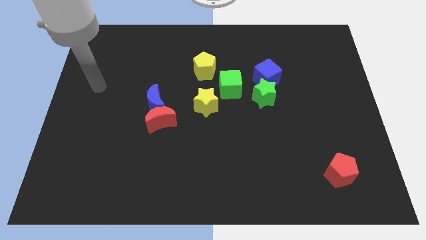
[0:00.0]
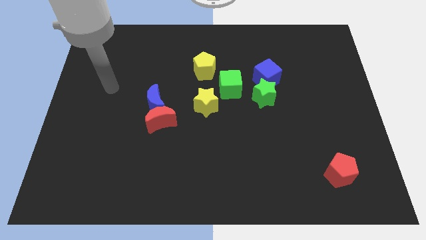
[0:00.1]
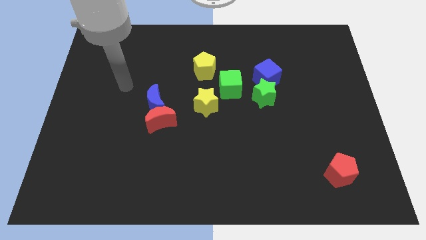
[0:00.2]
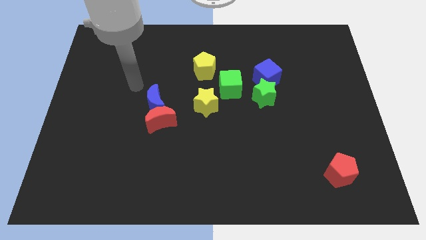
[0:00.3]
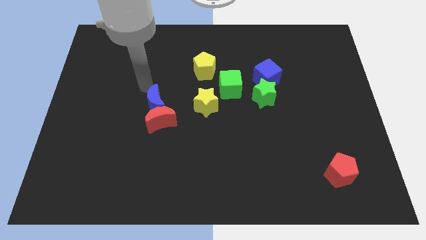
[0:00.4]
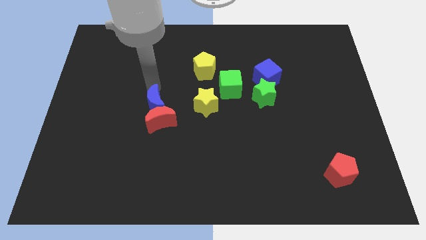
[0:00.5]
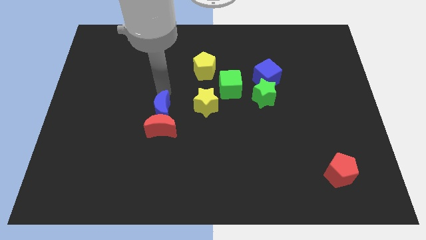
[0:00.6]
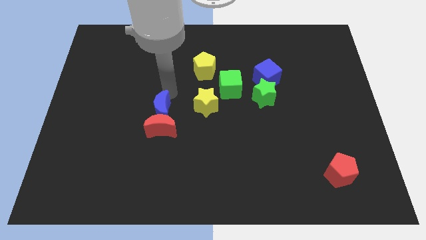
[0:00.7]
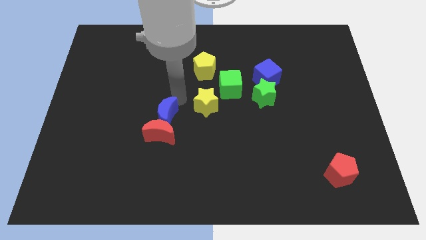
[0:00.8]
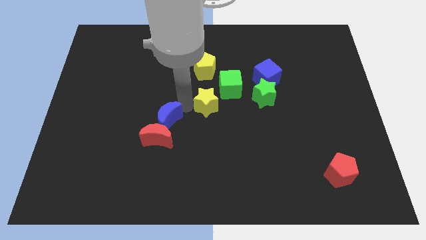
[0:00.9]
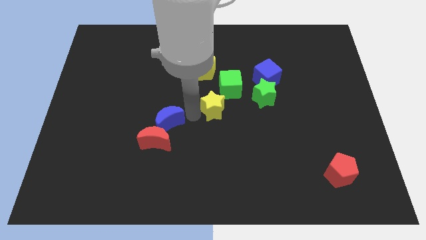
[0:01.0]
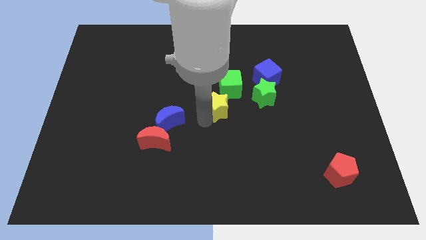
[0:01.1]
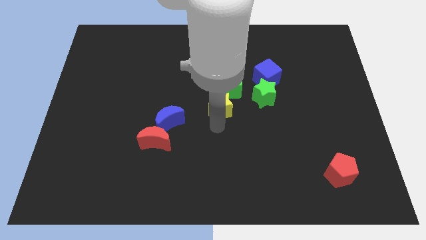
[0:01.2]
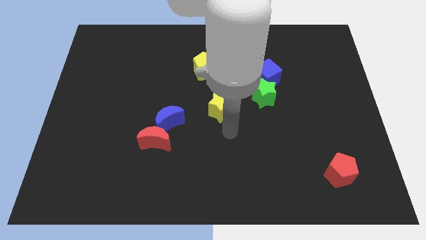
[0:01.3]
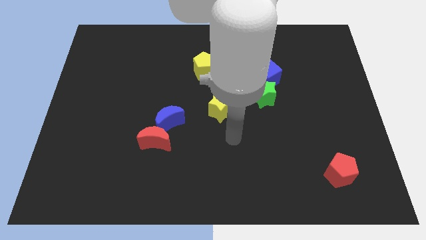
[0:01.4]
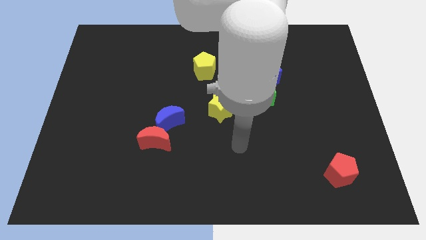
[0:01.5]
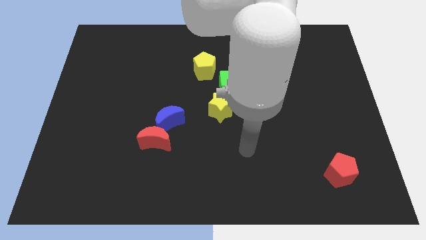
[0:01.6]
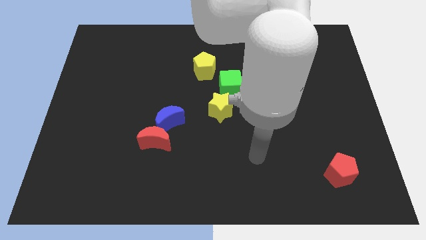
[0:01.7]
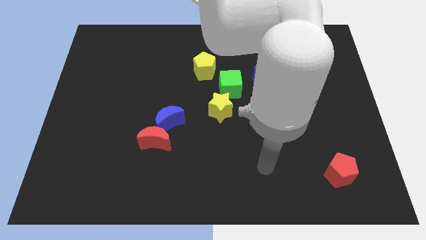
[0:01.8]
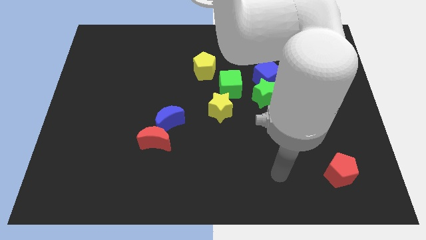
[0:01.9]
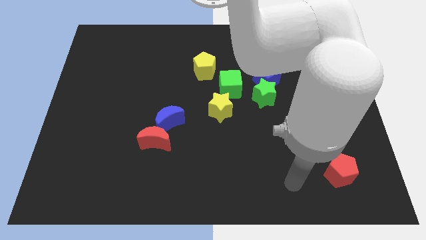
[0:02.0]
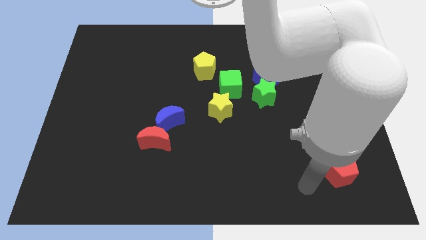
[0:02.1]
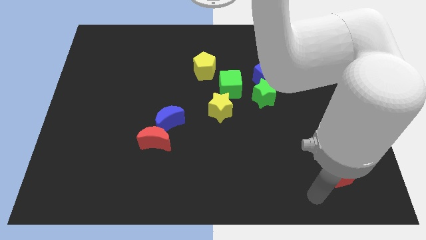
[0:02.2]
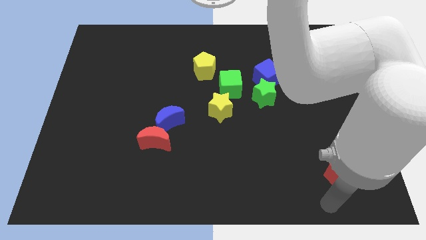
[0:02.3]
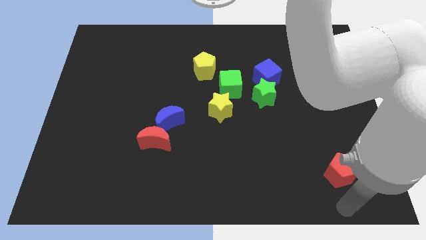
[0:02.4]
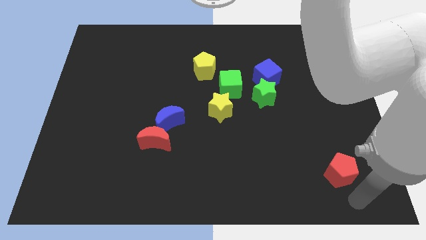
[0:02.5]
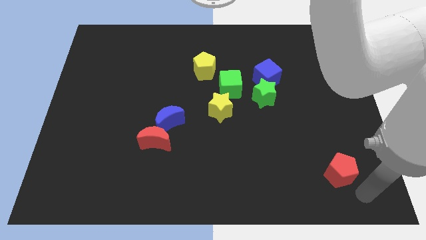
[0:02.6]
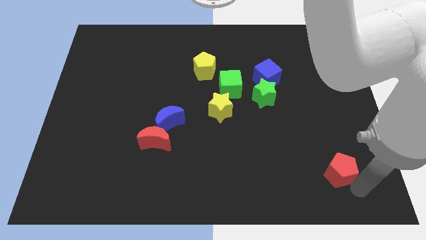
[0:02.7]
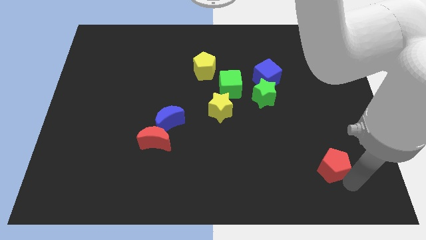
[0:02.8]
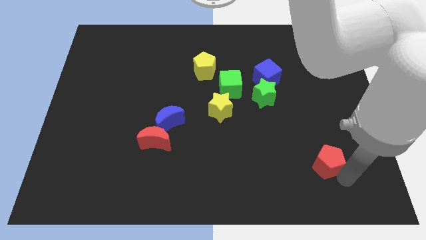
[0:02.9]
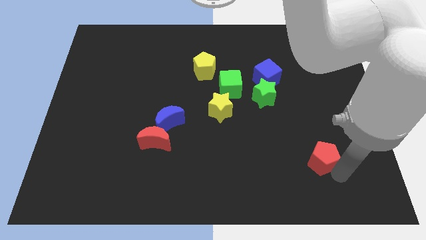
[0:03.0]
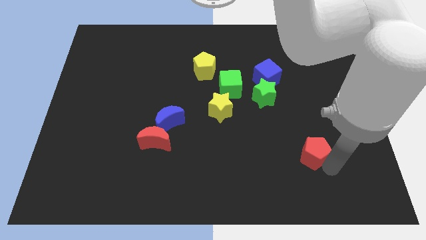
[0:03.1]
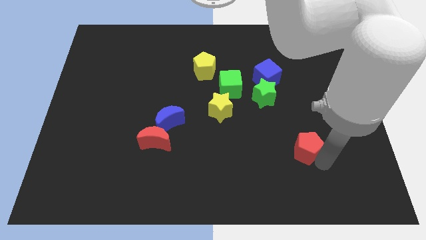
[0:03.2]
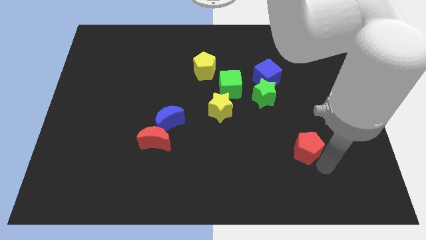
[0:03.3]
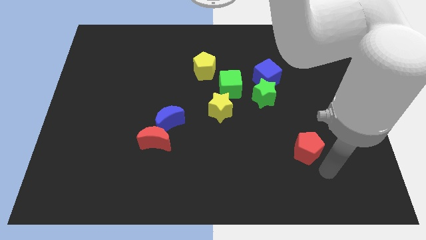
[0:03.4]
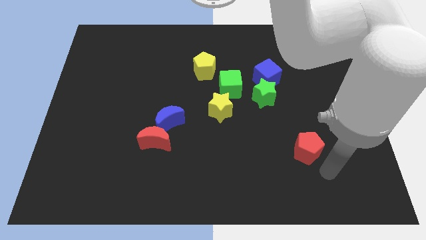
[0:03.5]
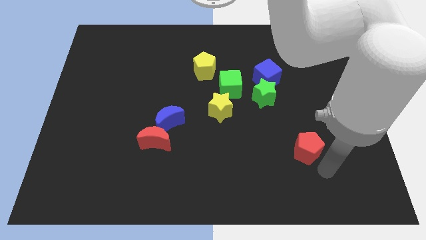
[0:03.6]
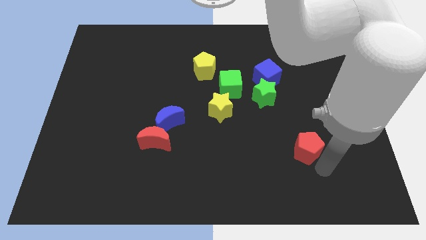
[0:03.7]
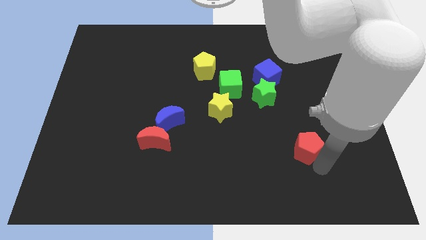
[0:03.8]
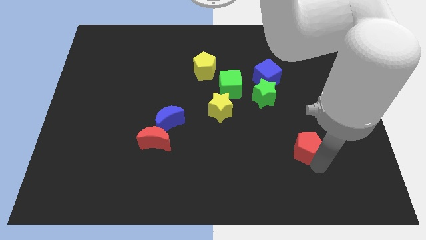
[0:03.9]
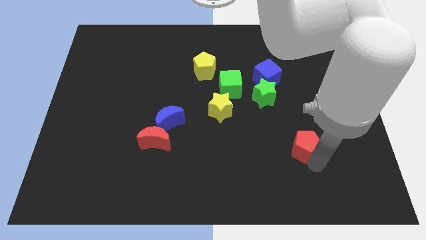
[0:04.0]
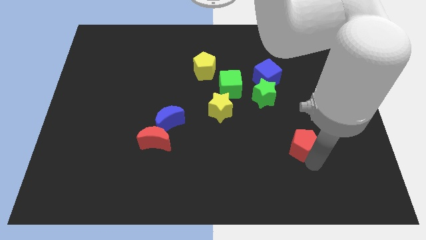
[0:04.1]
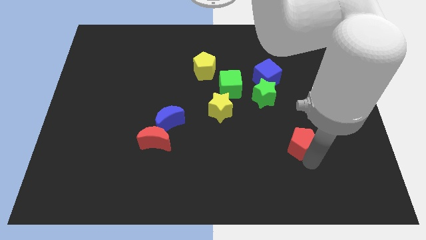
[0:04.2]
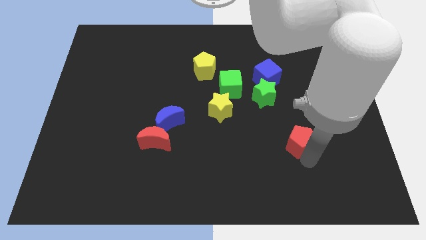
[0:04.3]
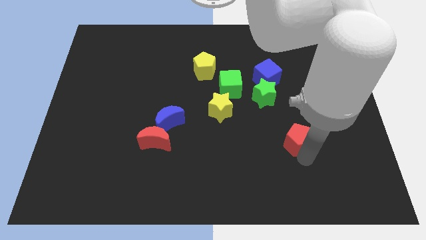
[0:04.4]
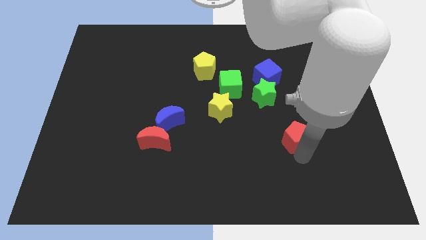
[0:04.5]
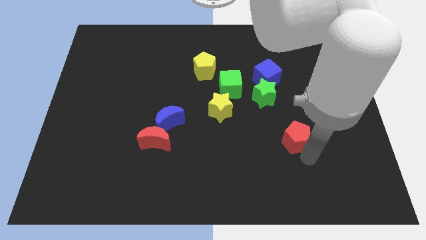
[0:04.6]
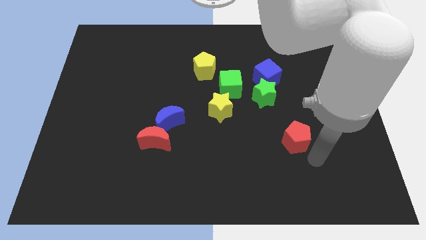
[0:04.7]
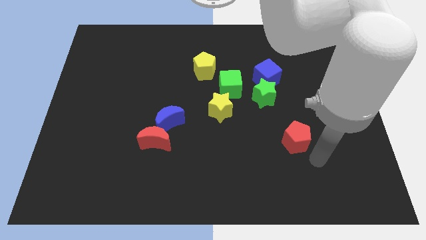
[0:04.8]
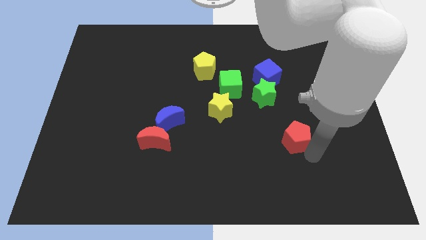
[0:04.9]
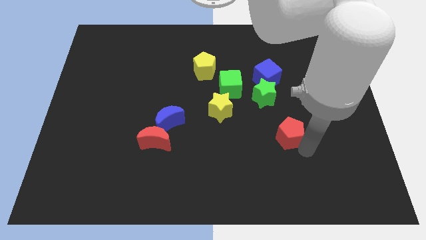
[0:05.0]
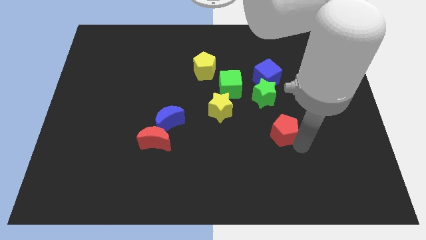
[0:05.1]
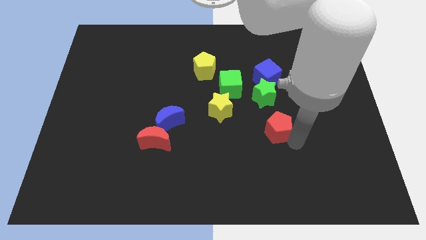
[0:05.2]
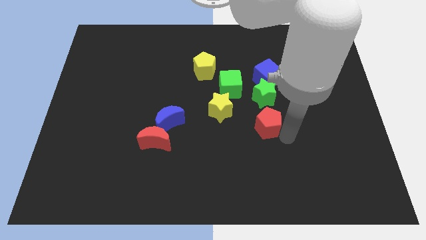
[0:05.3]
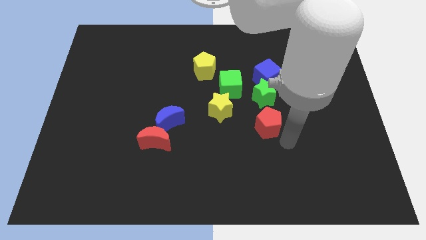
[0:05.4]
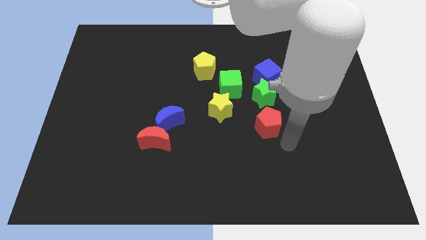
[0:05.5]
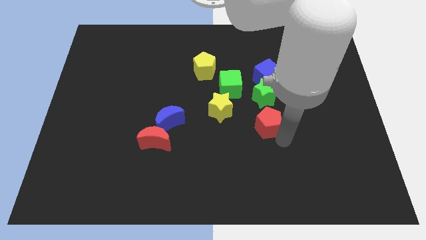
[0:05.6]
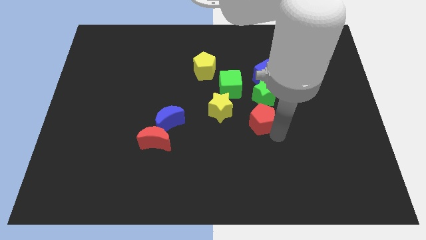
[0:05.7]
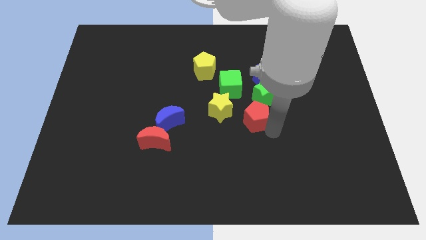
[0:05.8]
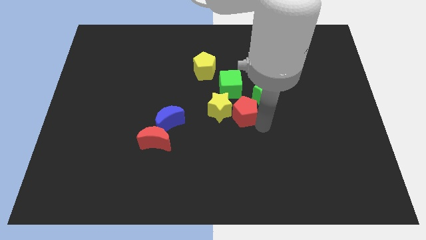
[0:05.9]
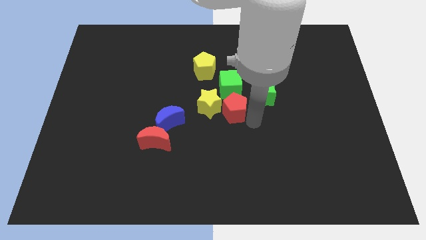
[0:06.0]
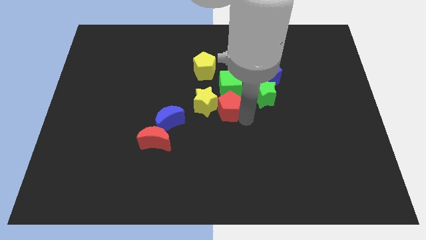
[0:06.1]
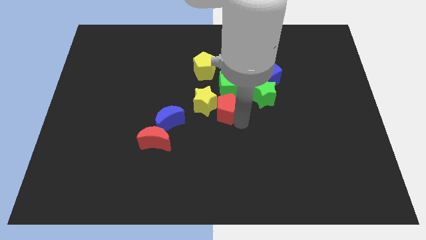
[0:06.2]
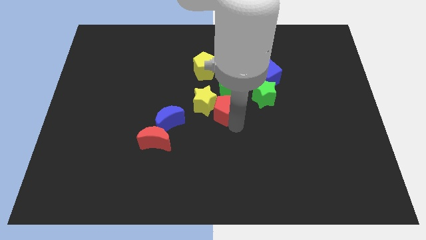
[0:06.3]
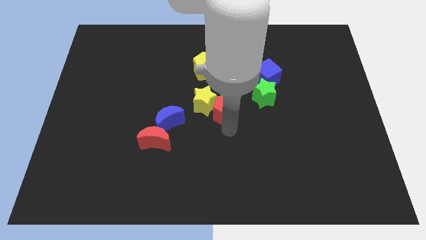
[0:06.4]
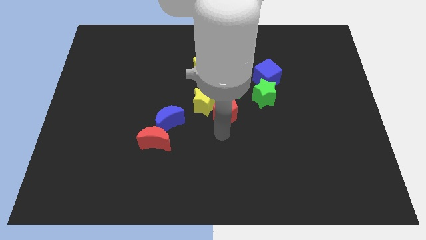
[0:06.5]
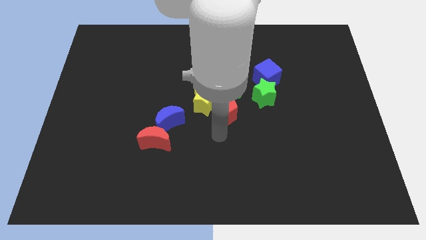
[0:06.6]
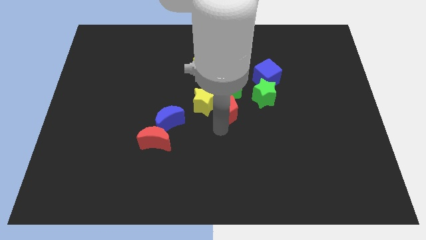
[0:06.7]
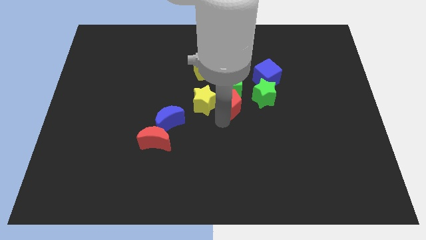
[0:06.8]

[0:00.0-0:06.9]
put the red pentagon to the green cube

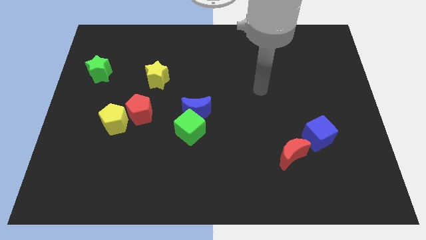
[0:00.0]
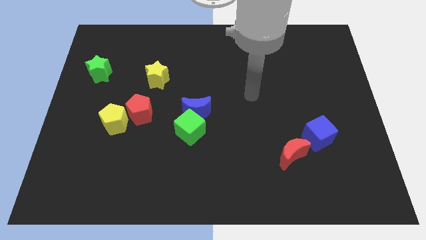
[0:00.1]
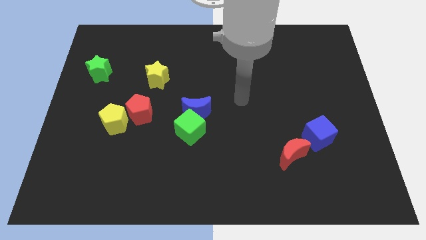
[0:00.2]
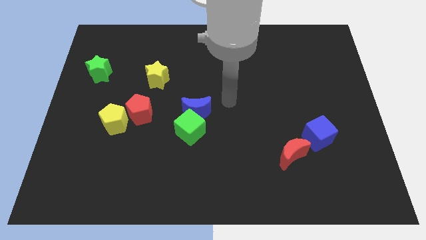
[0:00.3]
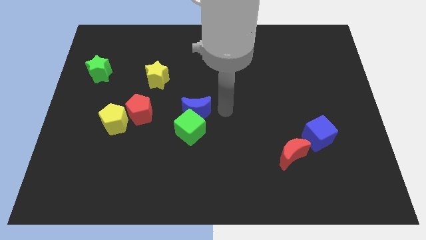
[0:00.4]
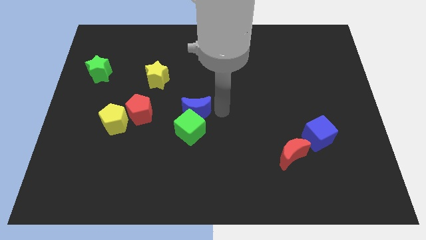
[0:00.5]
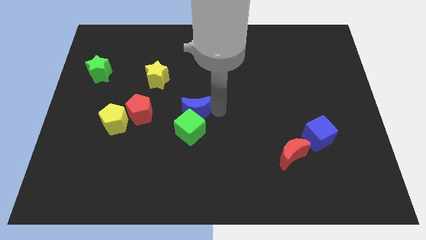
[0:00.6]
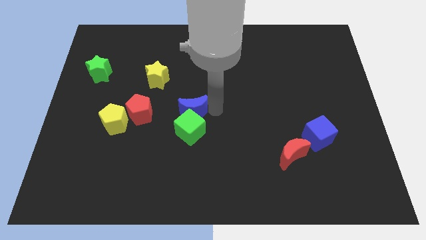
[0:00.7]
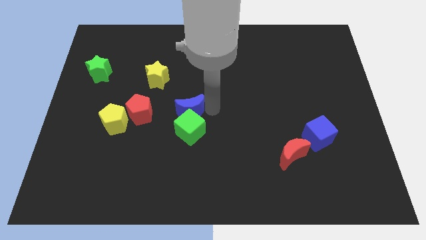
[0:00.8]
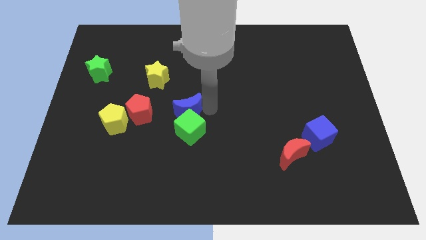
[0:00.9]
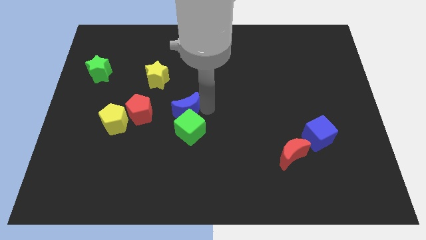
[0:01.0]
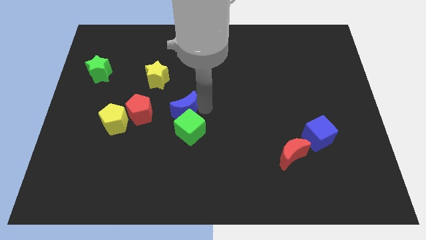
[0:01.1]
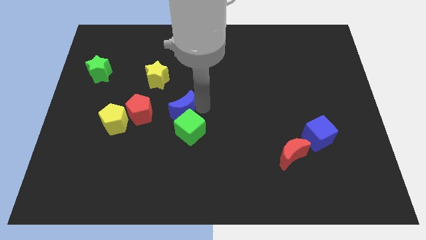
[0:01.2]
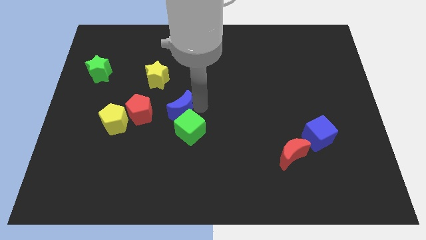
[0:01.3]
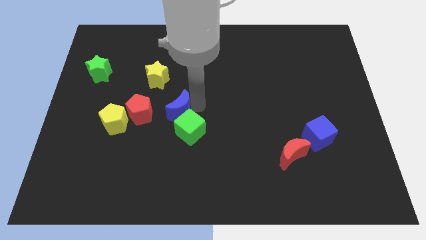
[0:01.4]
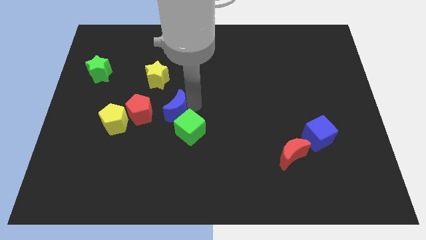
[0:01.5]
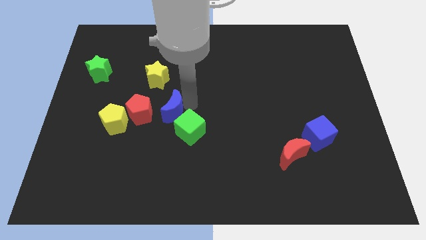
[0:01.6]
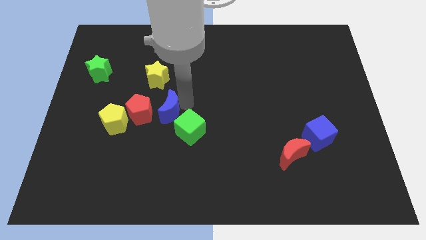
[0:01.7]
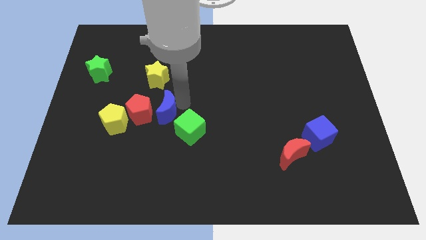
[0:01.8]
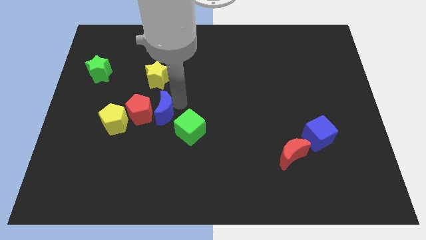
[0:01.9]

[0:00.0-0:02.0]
move the blue moon next to the red pentagon
